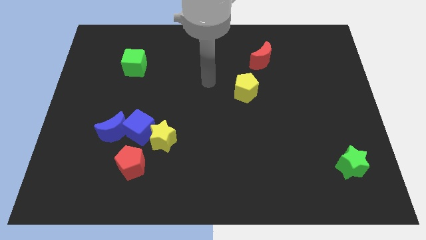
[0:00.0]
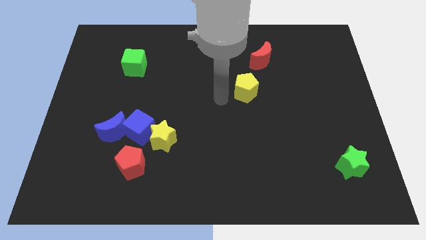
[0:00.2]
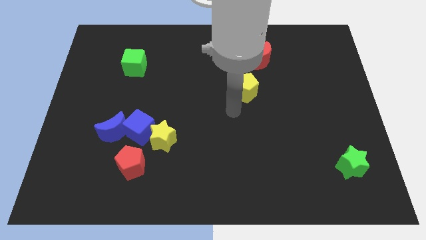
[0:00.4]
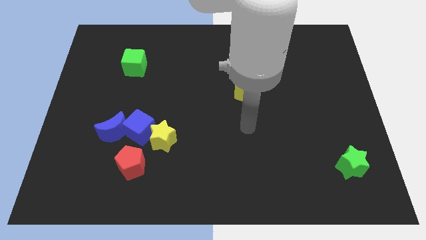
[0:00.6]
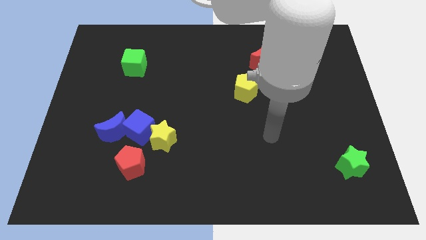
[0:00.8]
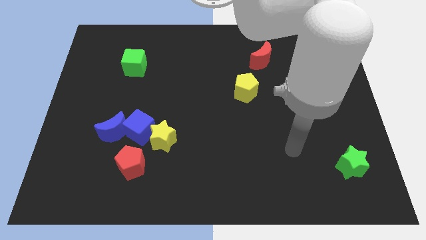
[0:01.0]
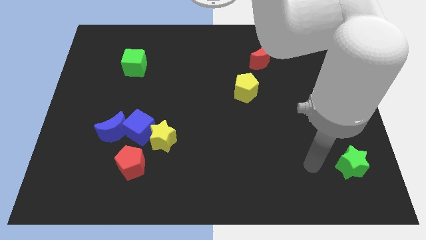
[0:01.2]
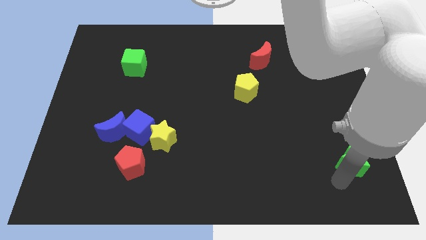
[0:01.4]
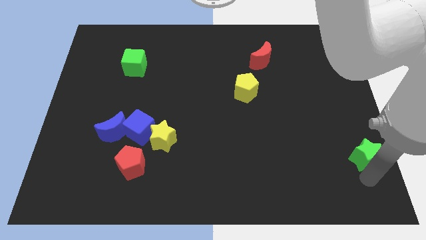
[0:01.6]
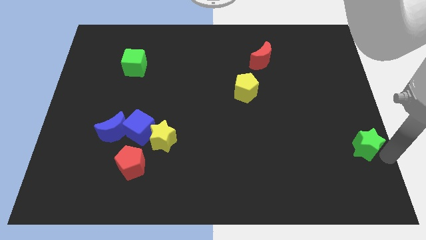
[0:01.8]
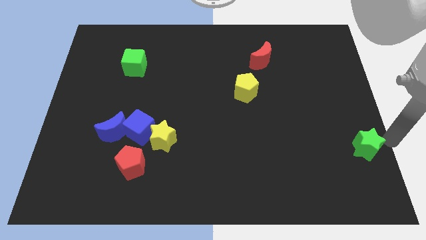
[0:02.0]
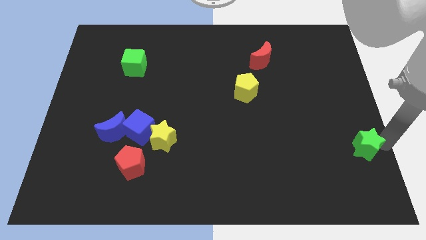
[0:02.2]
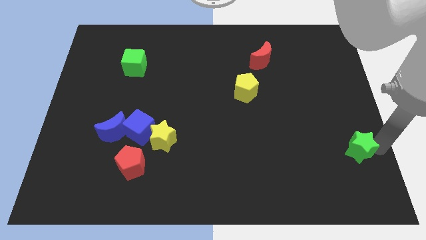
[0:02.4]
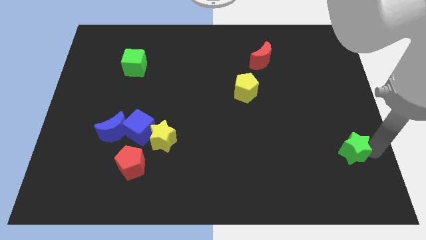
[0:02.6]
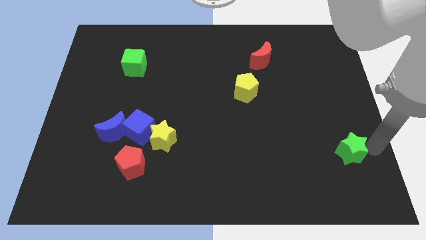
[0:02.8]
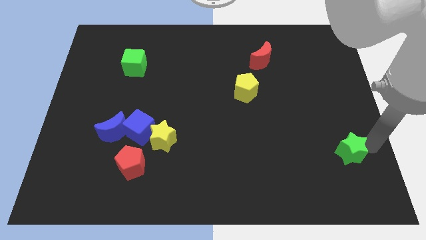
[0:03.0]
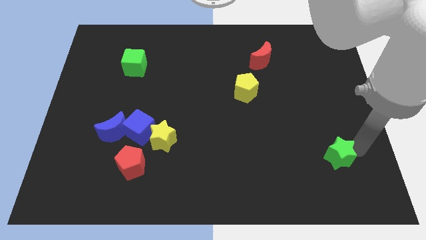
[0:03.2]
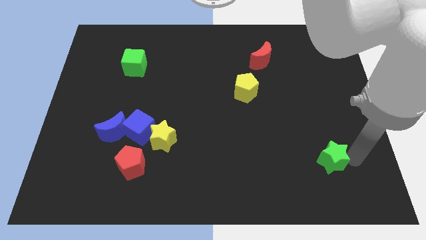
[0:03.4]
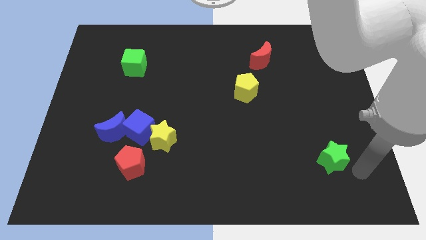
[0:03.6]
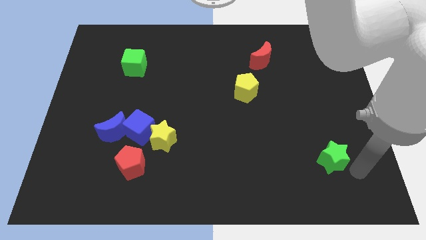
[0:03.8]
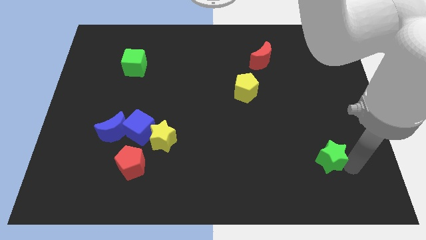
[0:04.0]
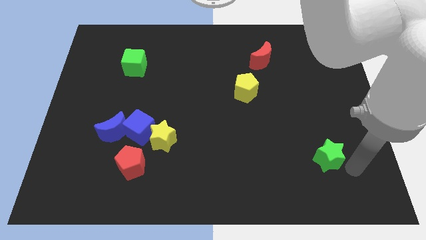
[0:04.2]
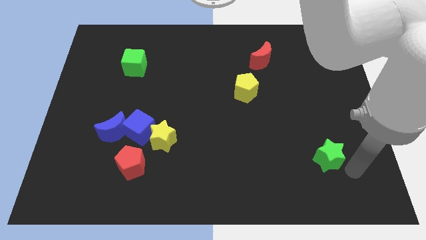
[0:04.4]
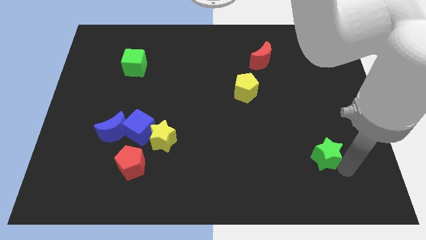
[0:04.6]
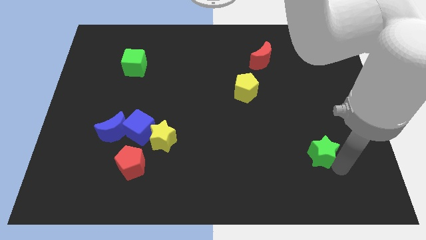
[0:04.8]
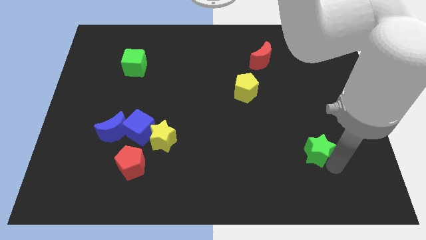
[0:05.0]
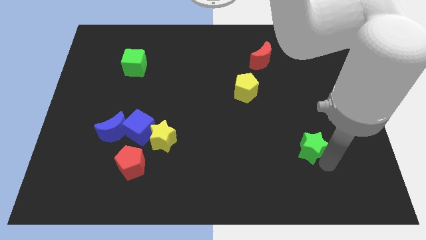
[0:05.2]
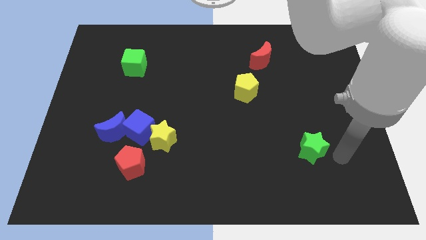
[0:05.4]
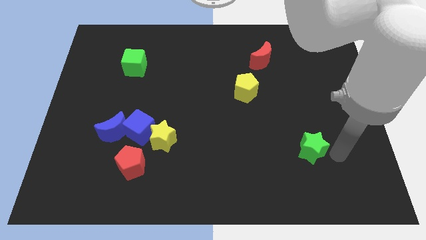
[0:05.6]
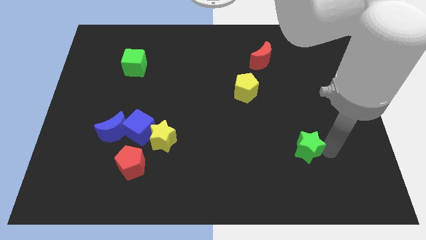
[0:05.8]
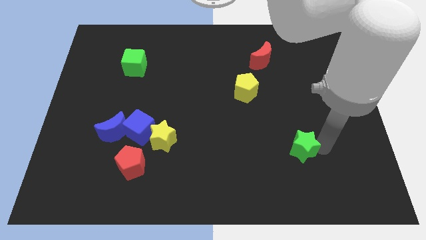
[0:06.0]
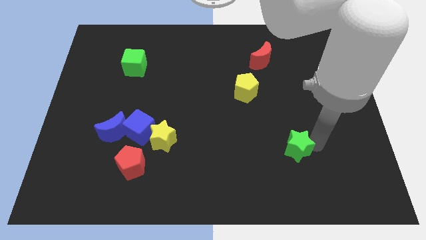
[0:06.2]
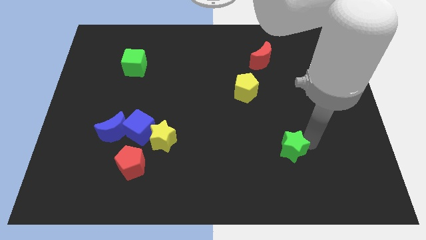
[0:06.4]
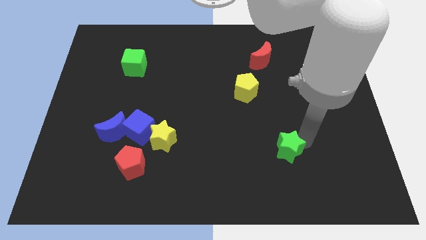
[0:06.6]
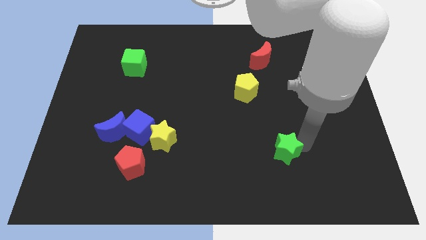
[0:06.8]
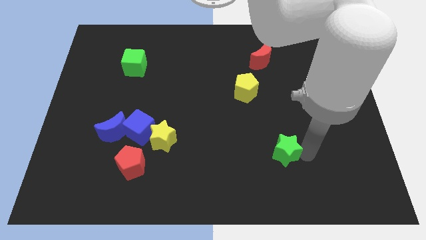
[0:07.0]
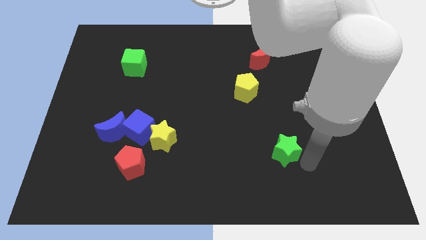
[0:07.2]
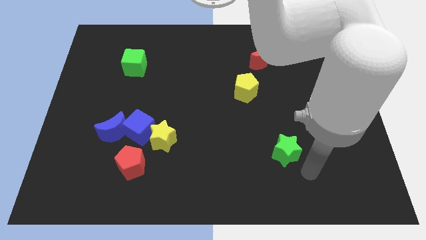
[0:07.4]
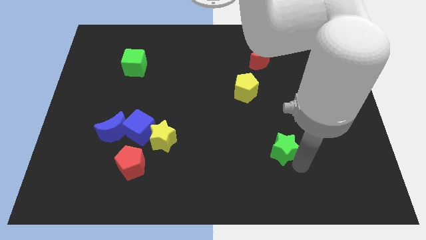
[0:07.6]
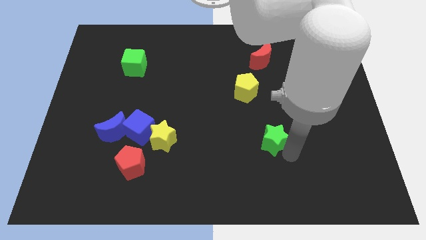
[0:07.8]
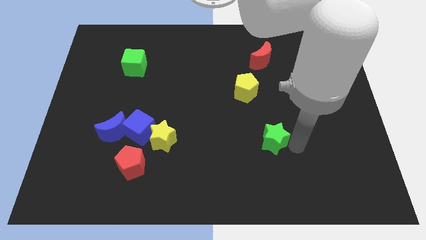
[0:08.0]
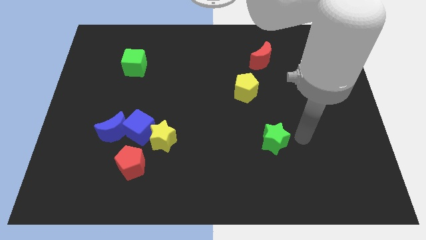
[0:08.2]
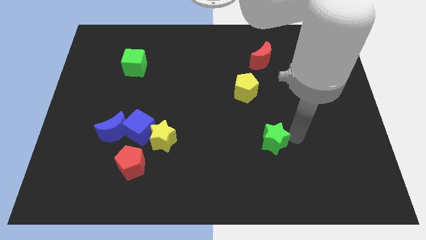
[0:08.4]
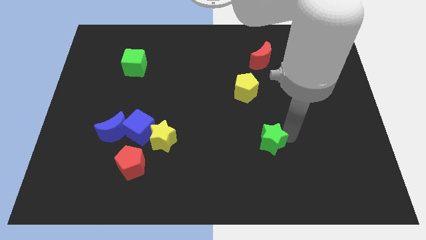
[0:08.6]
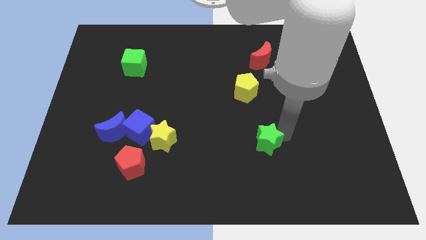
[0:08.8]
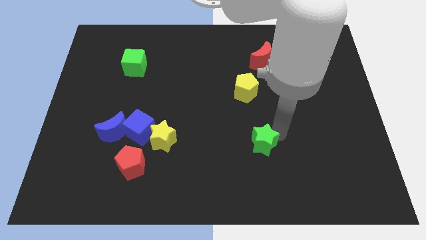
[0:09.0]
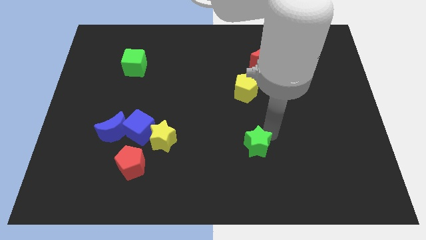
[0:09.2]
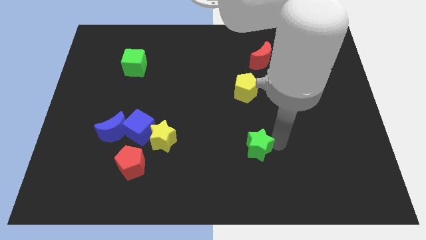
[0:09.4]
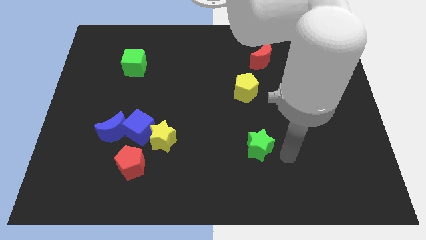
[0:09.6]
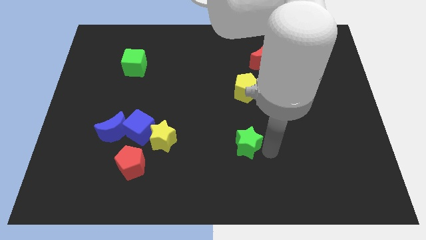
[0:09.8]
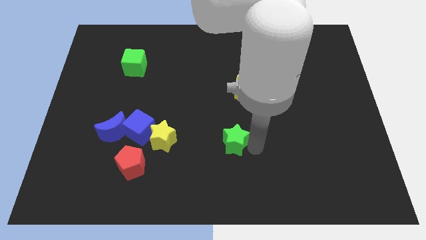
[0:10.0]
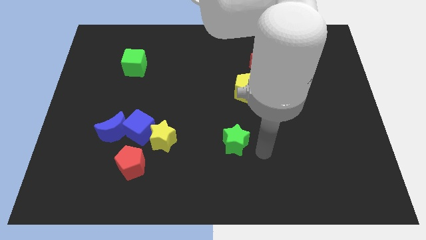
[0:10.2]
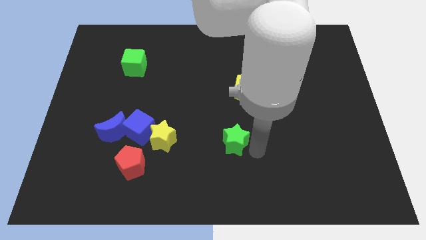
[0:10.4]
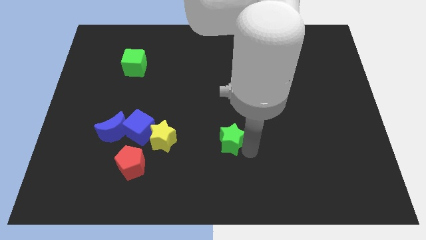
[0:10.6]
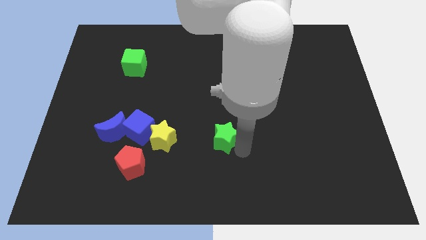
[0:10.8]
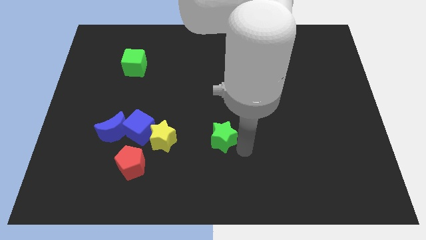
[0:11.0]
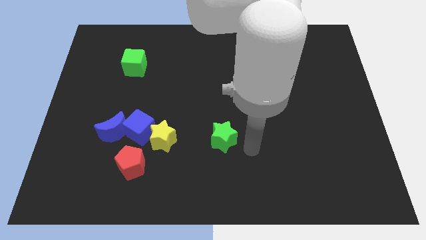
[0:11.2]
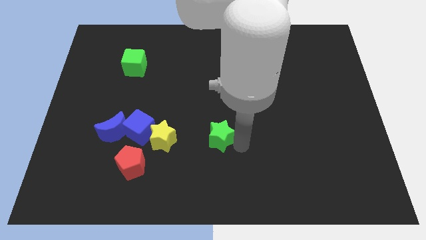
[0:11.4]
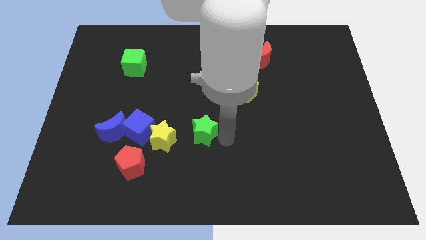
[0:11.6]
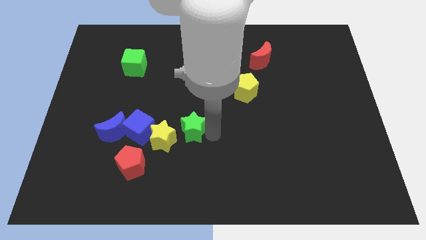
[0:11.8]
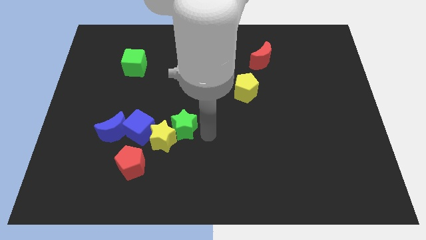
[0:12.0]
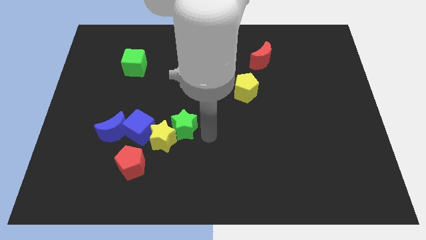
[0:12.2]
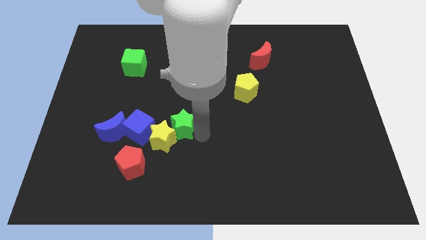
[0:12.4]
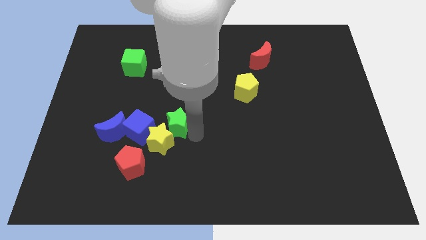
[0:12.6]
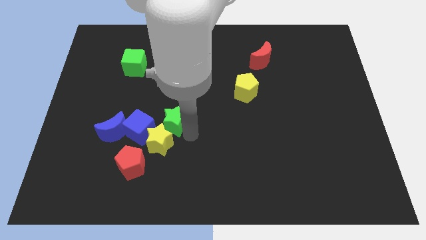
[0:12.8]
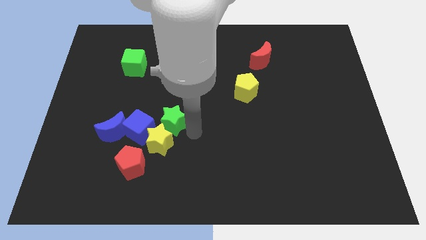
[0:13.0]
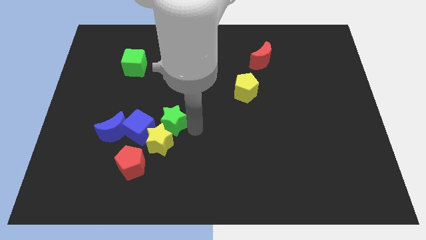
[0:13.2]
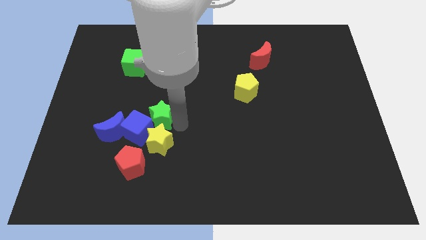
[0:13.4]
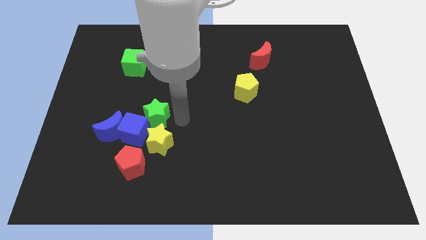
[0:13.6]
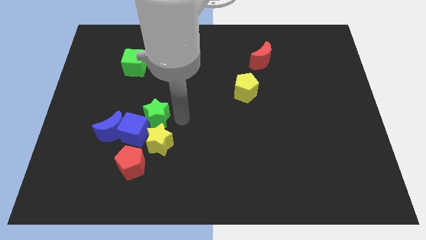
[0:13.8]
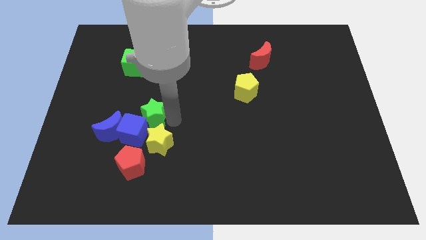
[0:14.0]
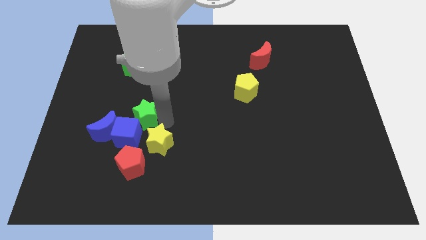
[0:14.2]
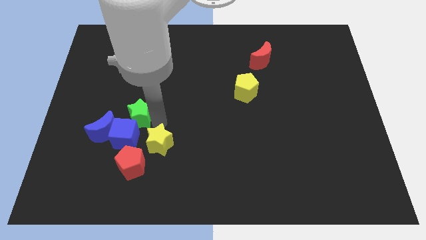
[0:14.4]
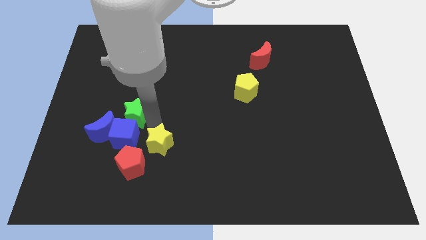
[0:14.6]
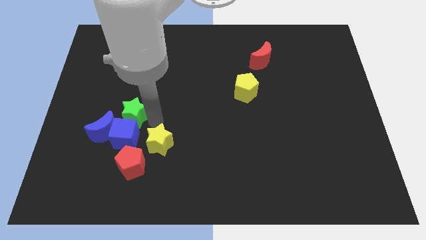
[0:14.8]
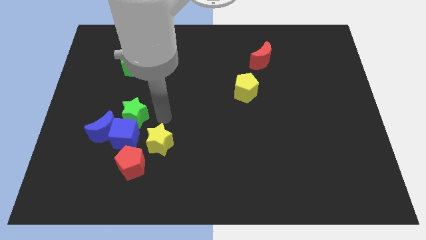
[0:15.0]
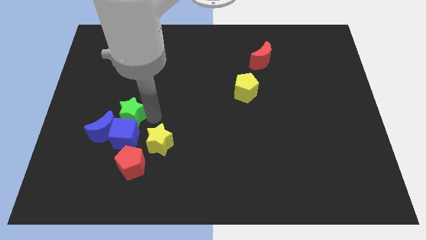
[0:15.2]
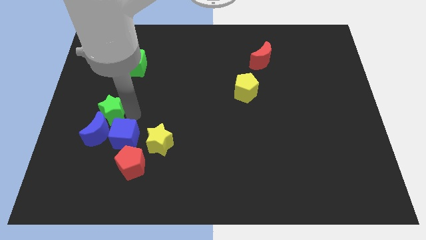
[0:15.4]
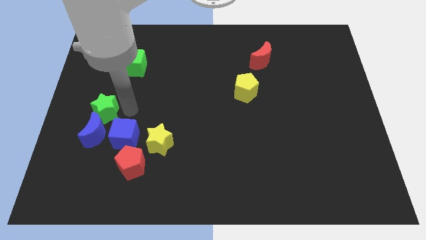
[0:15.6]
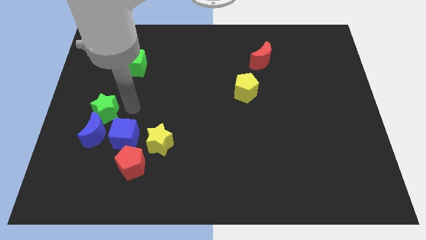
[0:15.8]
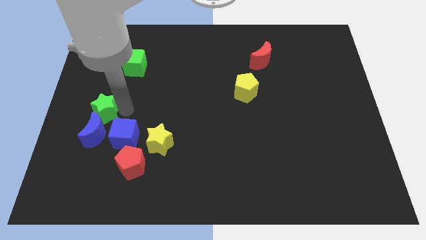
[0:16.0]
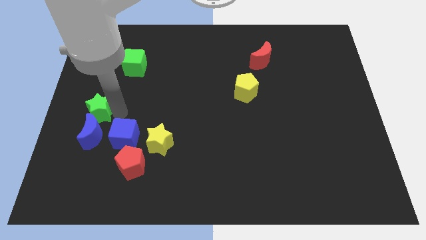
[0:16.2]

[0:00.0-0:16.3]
put the green star to the top left of the blue moon
